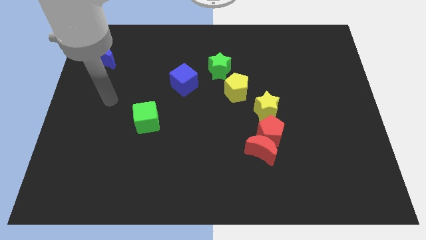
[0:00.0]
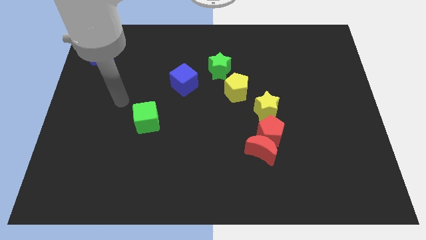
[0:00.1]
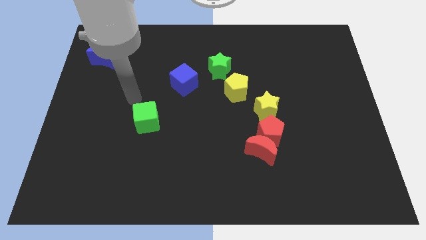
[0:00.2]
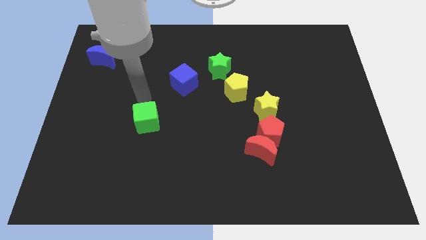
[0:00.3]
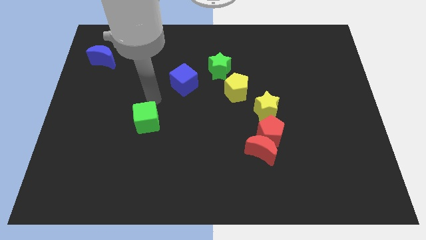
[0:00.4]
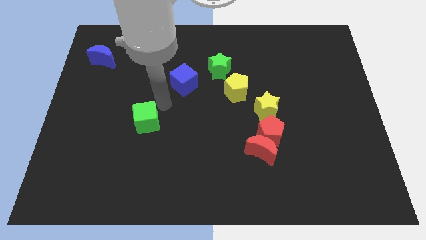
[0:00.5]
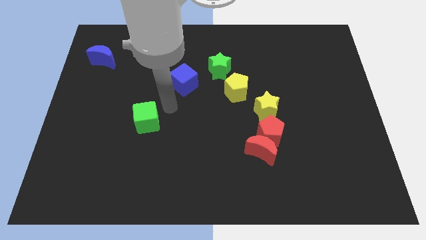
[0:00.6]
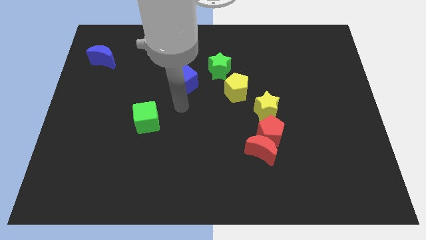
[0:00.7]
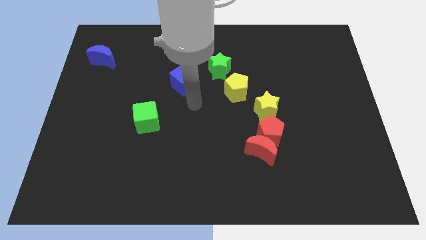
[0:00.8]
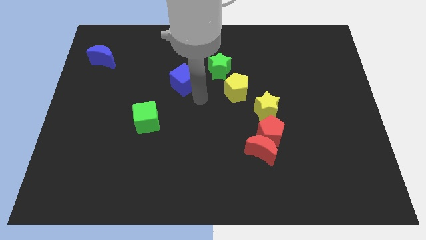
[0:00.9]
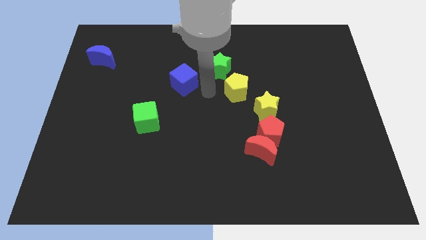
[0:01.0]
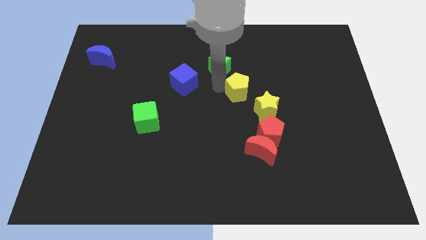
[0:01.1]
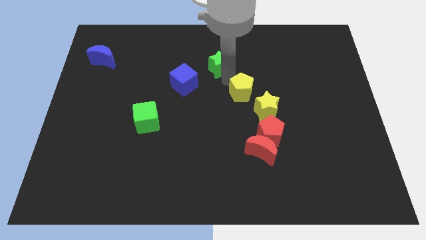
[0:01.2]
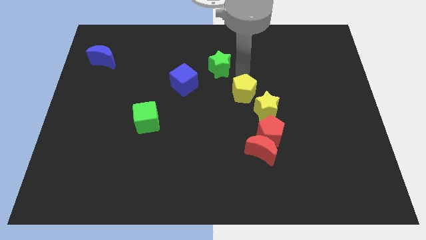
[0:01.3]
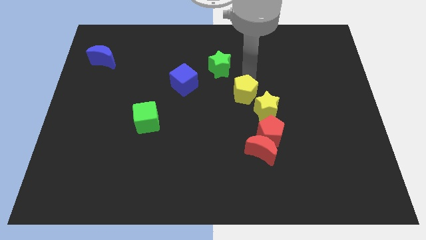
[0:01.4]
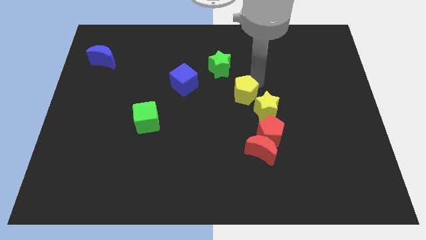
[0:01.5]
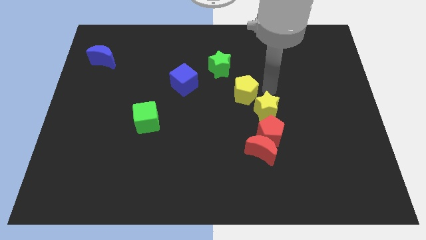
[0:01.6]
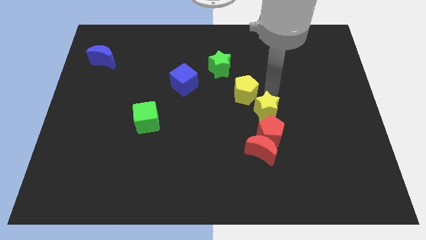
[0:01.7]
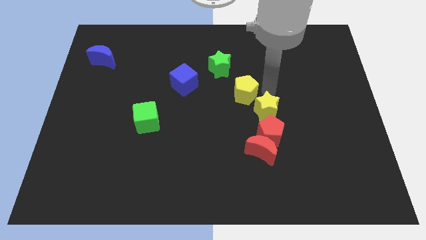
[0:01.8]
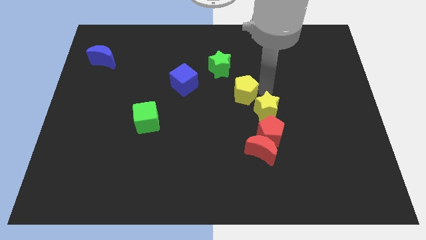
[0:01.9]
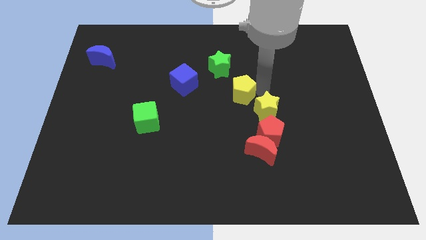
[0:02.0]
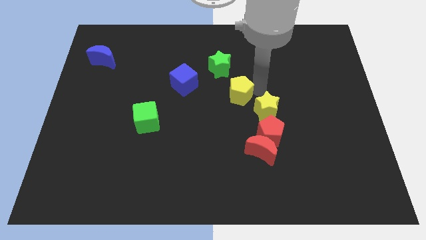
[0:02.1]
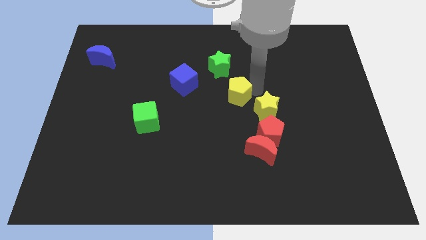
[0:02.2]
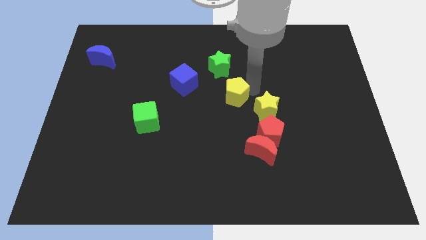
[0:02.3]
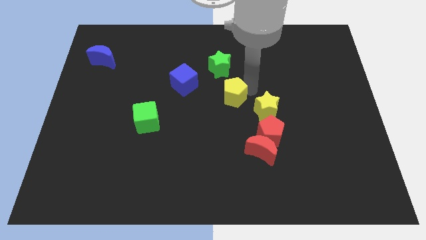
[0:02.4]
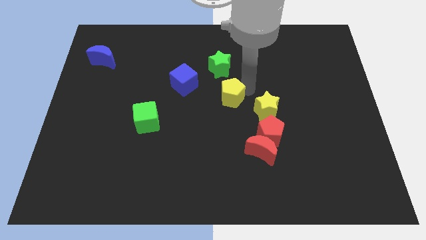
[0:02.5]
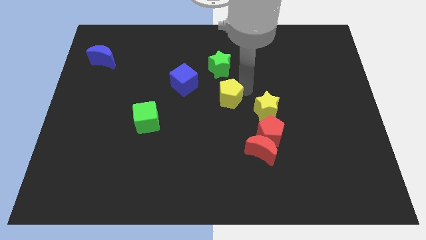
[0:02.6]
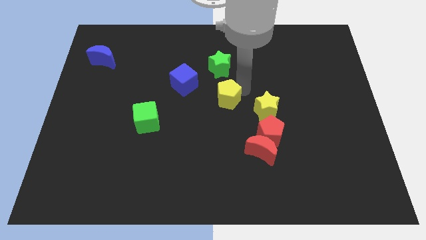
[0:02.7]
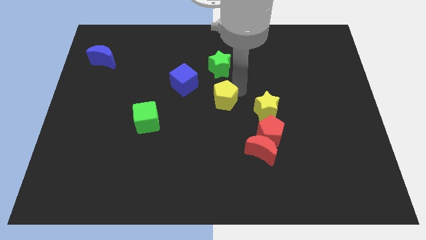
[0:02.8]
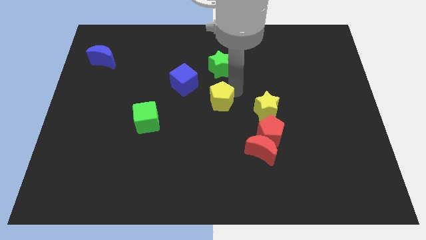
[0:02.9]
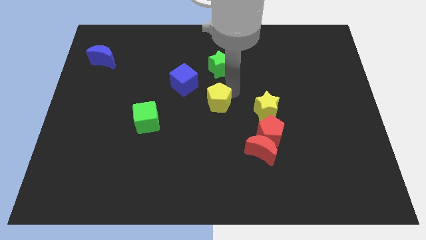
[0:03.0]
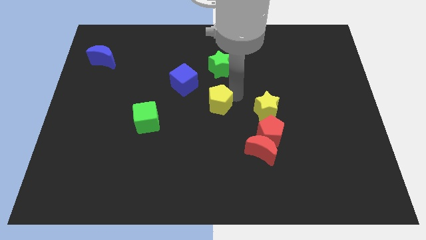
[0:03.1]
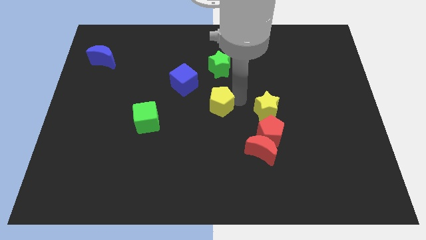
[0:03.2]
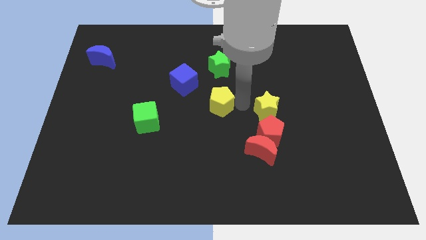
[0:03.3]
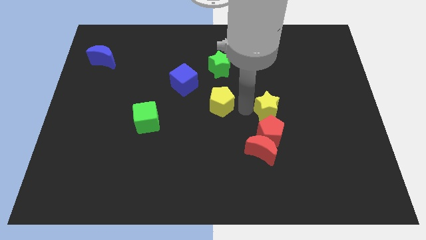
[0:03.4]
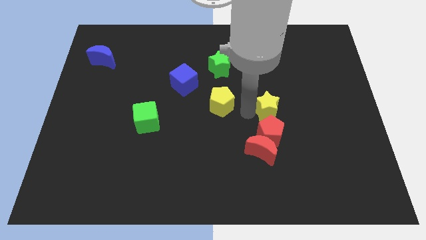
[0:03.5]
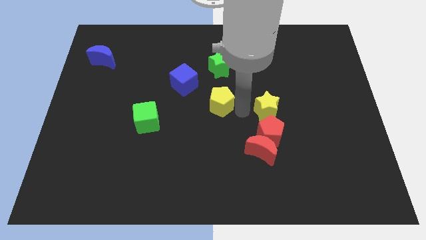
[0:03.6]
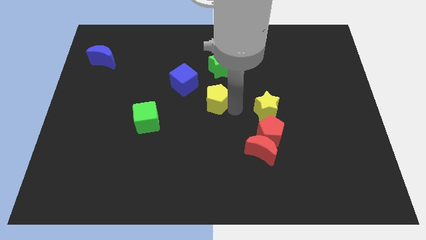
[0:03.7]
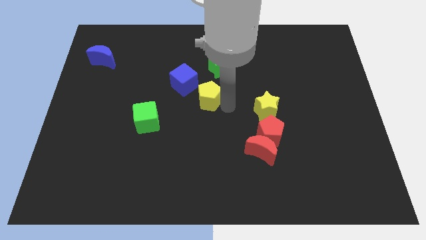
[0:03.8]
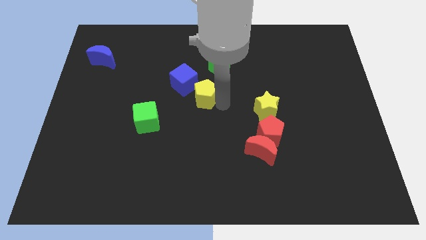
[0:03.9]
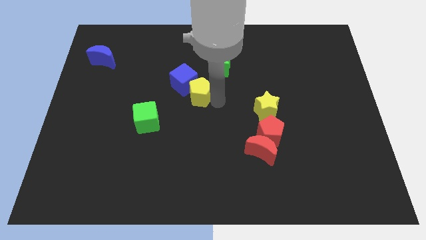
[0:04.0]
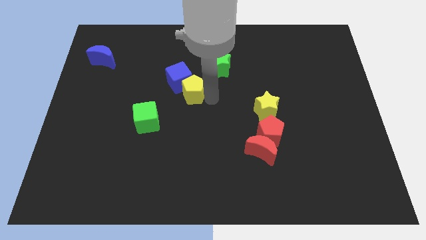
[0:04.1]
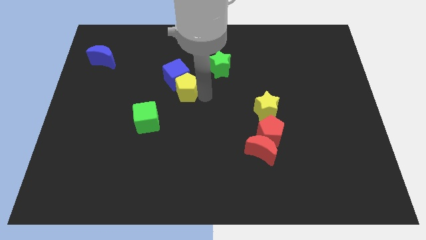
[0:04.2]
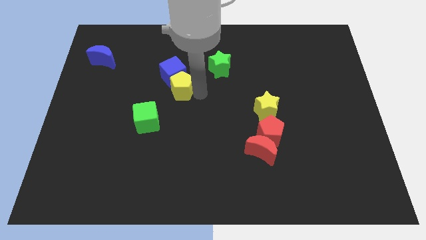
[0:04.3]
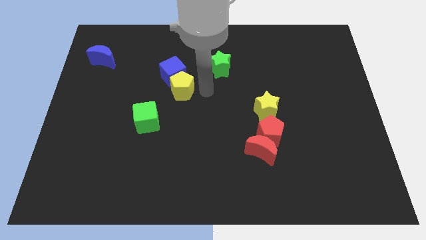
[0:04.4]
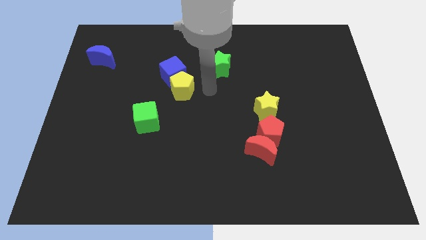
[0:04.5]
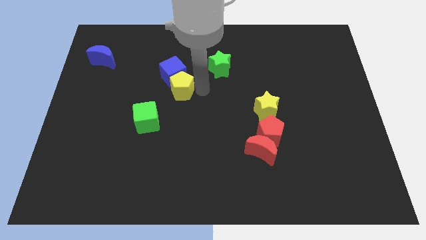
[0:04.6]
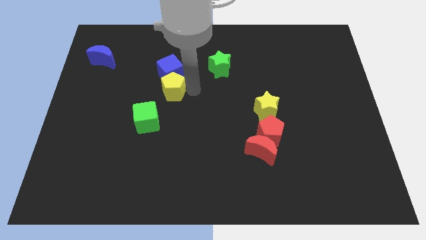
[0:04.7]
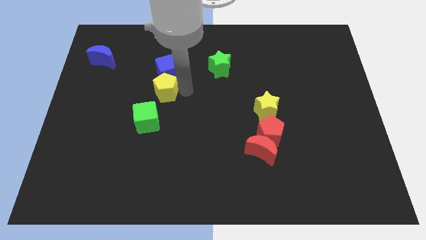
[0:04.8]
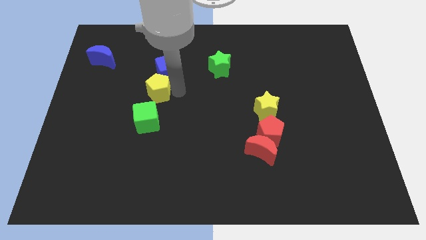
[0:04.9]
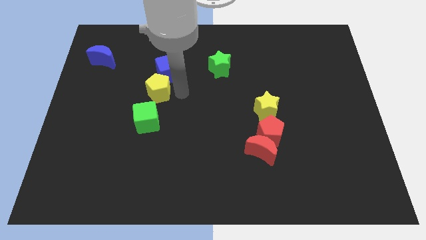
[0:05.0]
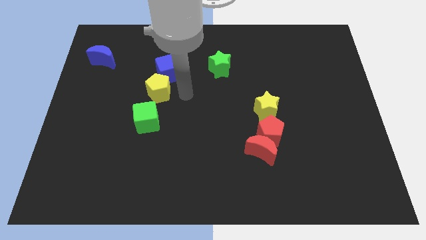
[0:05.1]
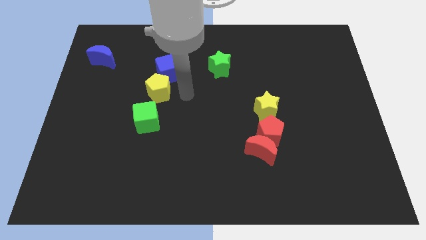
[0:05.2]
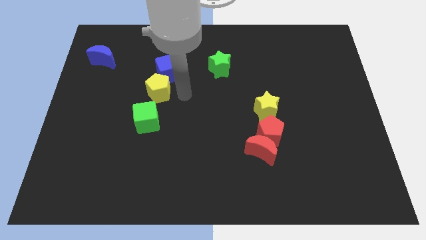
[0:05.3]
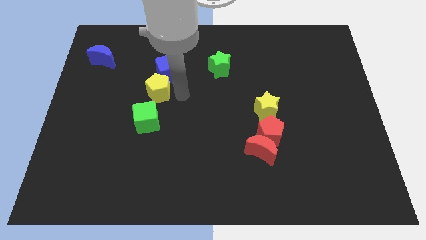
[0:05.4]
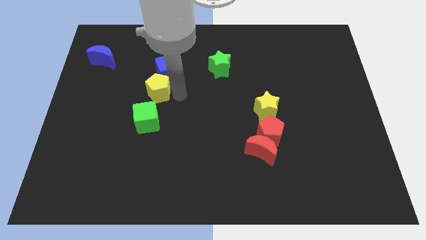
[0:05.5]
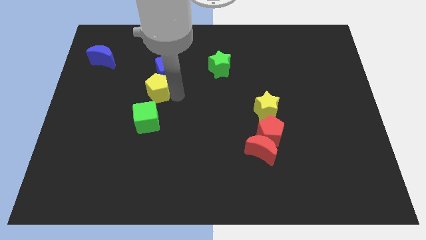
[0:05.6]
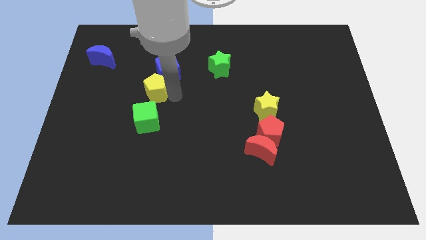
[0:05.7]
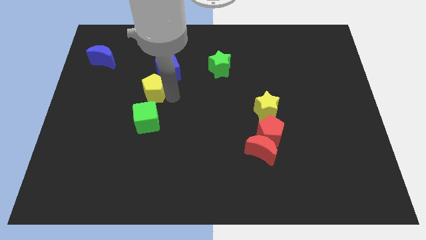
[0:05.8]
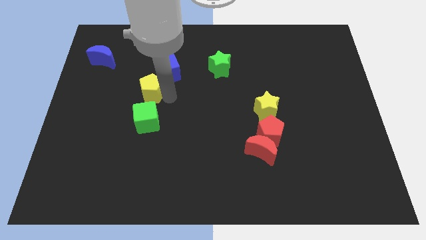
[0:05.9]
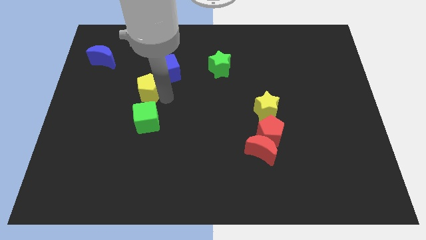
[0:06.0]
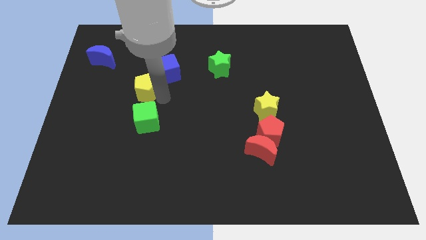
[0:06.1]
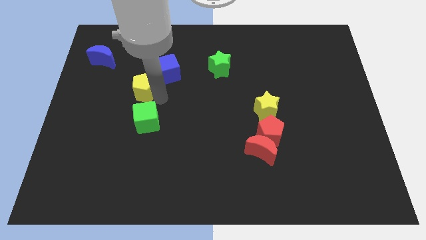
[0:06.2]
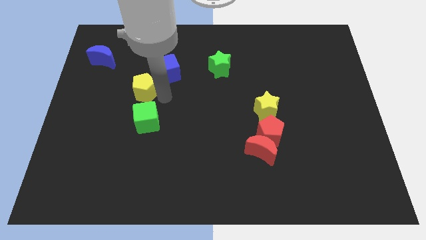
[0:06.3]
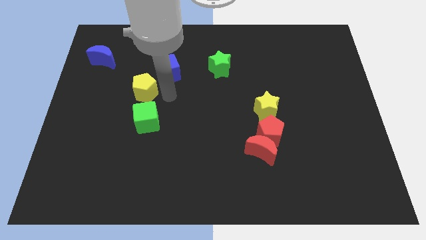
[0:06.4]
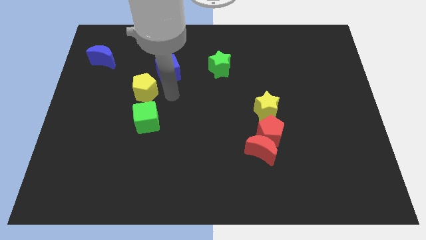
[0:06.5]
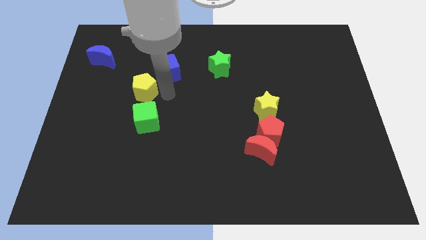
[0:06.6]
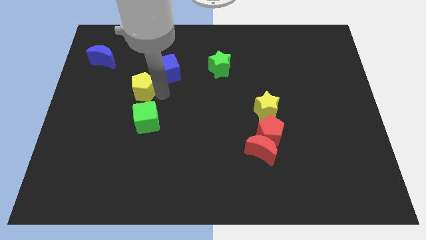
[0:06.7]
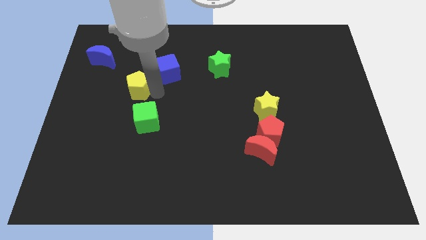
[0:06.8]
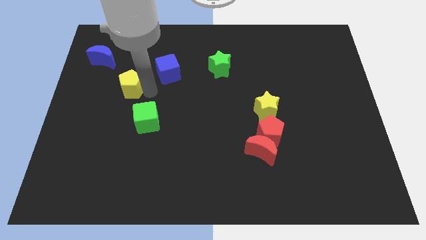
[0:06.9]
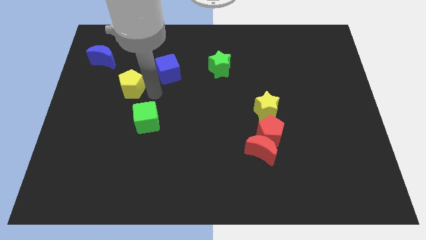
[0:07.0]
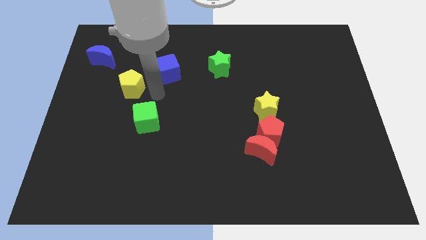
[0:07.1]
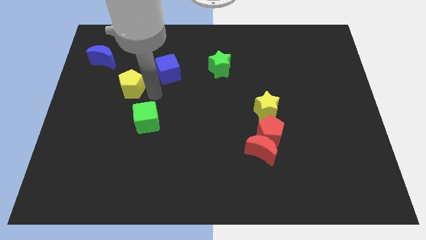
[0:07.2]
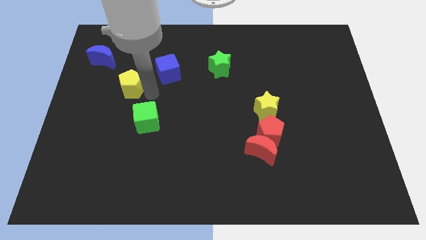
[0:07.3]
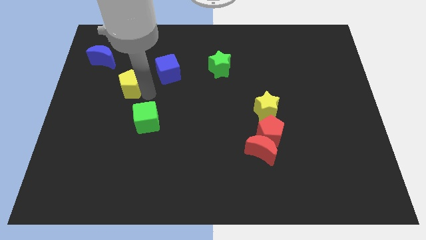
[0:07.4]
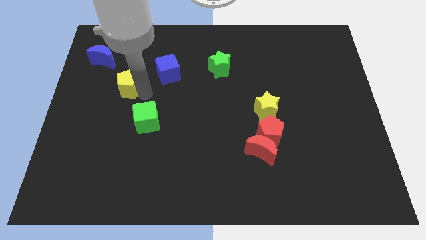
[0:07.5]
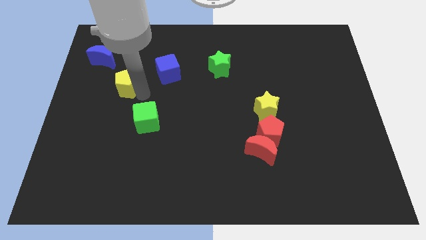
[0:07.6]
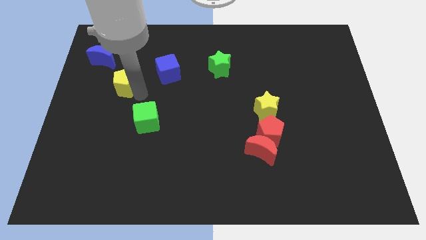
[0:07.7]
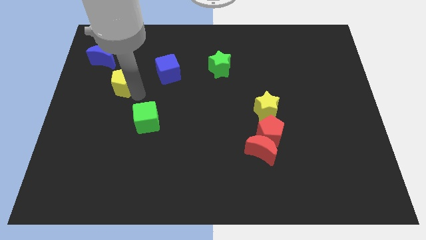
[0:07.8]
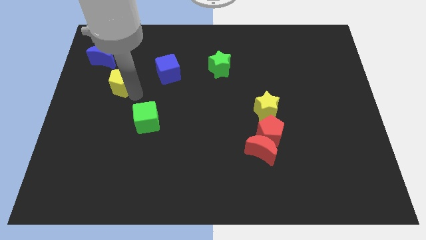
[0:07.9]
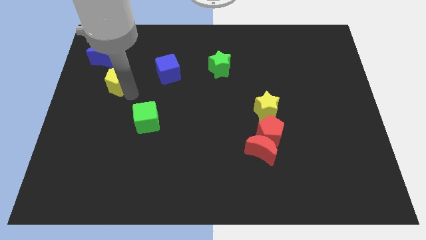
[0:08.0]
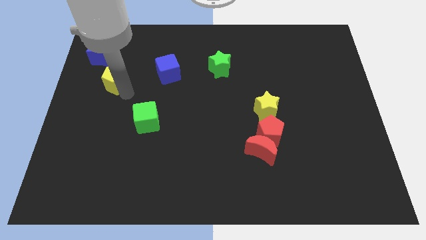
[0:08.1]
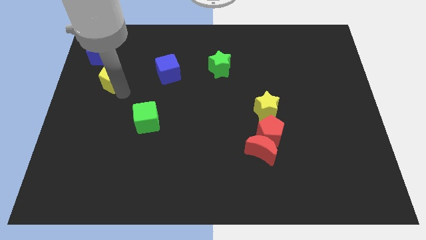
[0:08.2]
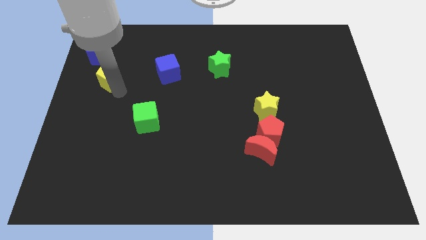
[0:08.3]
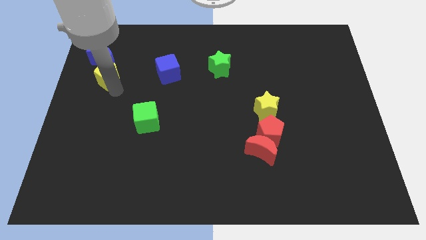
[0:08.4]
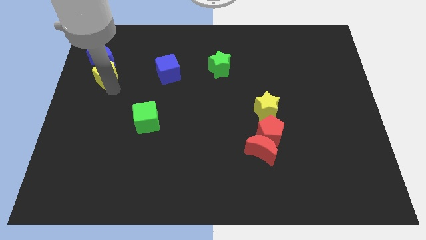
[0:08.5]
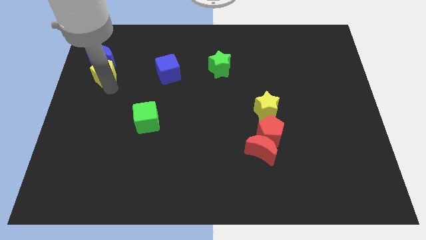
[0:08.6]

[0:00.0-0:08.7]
push the yellow pentagon next to the blue moon
